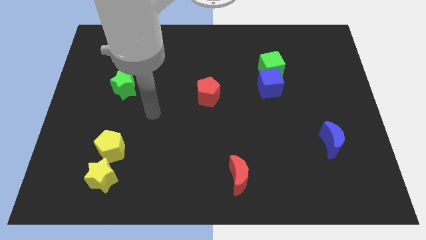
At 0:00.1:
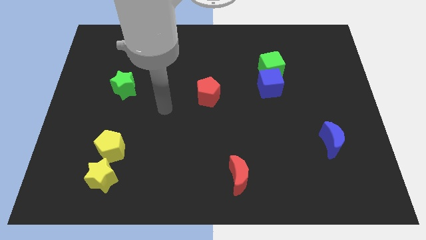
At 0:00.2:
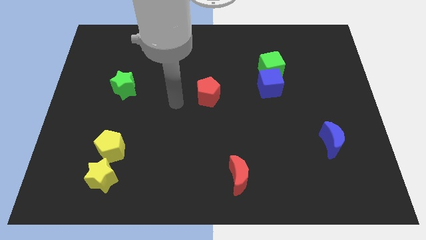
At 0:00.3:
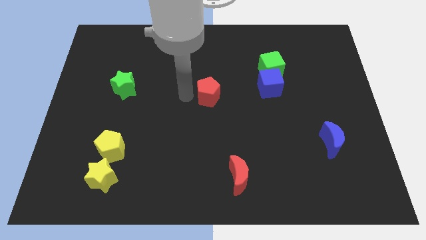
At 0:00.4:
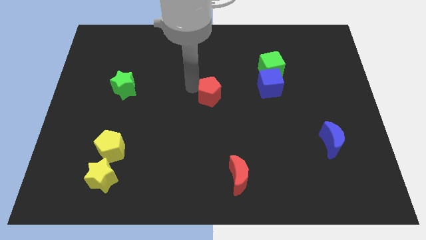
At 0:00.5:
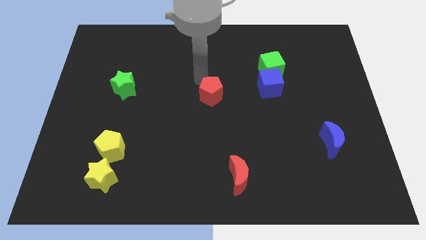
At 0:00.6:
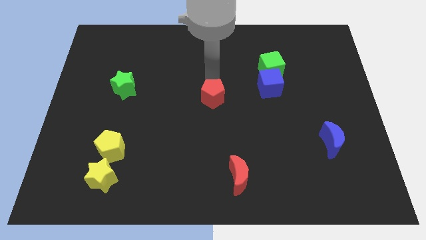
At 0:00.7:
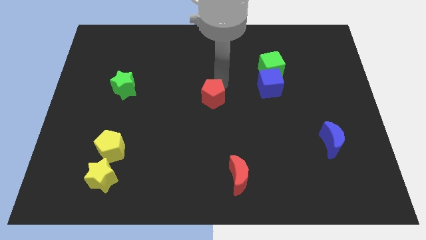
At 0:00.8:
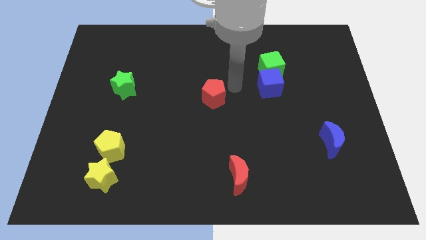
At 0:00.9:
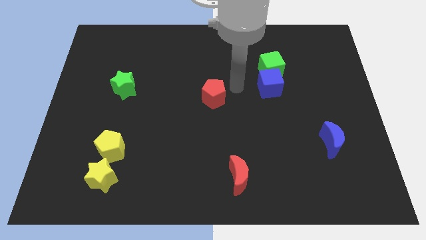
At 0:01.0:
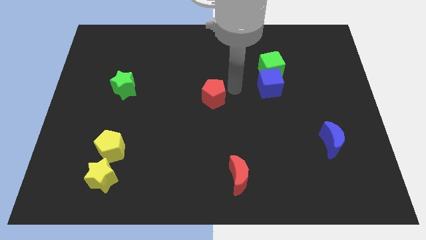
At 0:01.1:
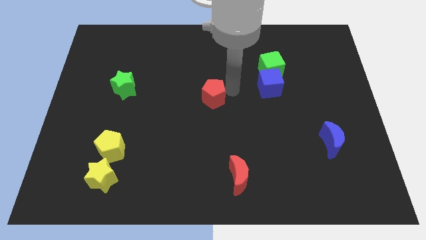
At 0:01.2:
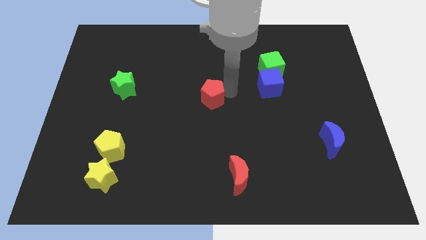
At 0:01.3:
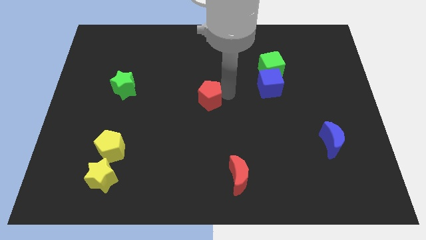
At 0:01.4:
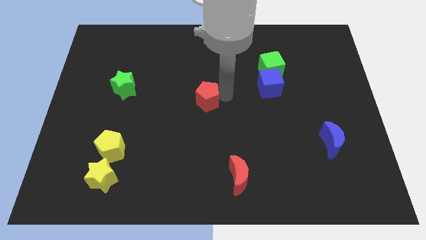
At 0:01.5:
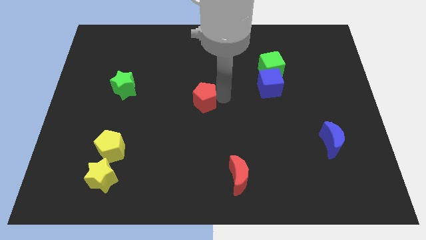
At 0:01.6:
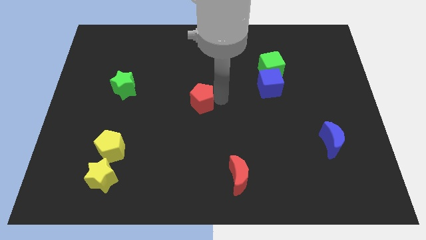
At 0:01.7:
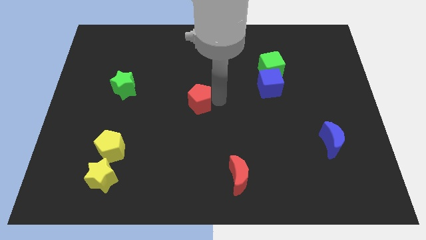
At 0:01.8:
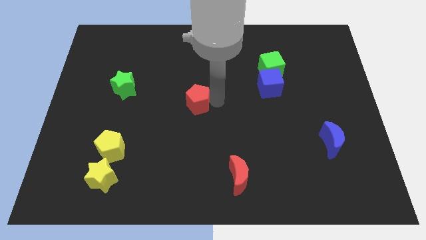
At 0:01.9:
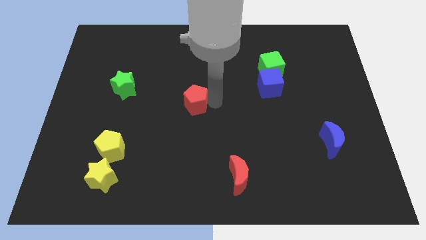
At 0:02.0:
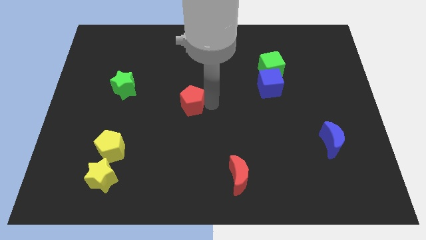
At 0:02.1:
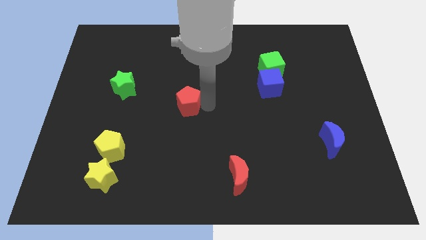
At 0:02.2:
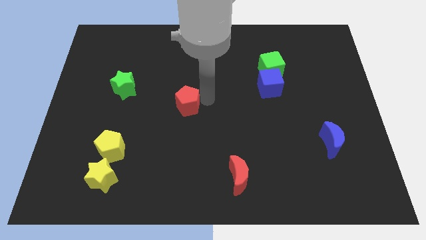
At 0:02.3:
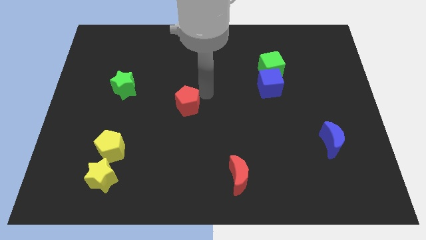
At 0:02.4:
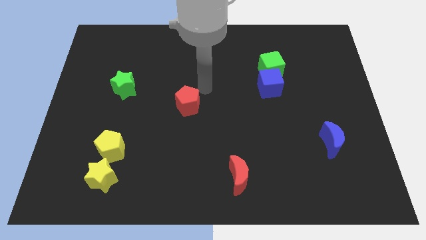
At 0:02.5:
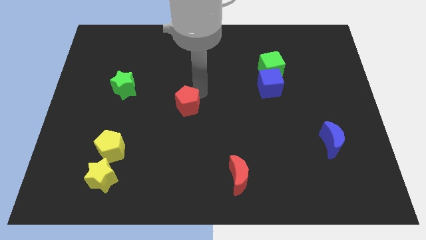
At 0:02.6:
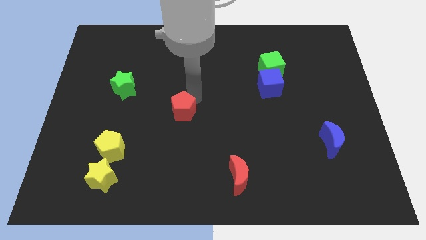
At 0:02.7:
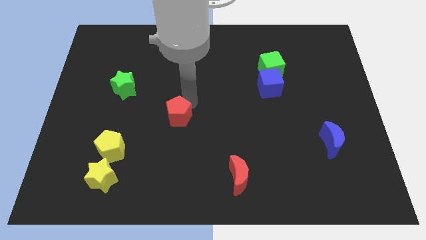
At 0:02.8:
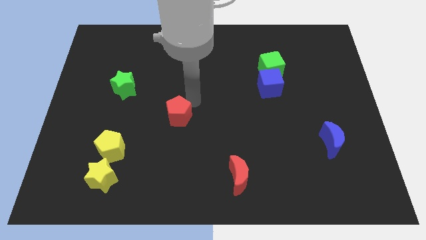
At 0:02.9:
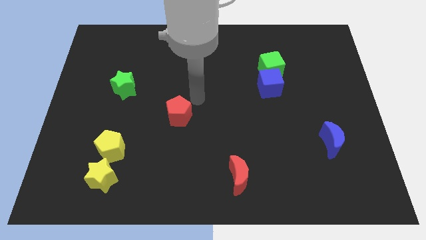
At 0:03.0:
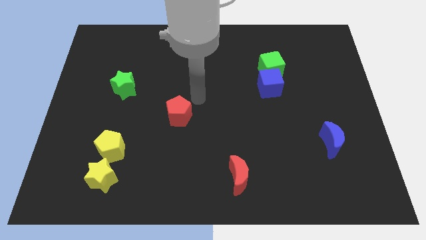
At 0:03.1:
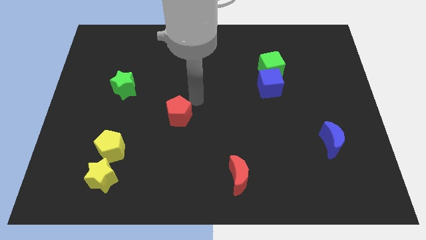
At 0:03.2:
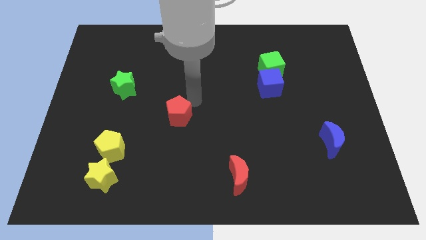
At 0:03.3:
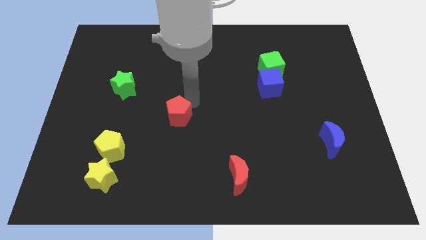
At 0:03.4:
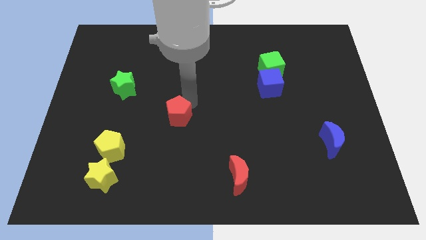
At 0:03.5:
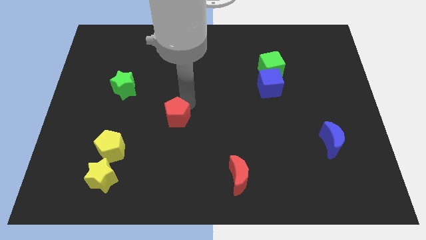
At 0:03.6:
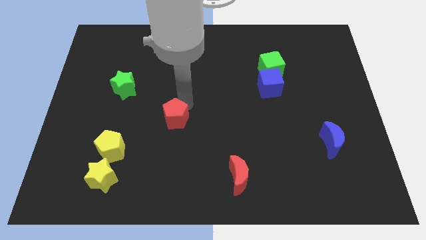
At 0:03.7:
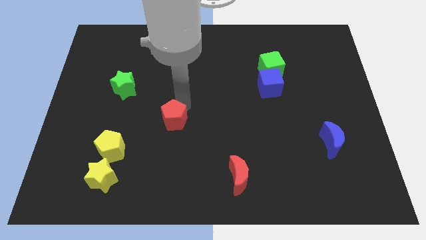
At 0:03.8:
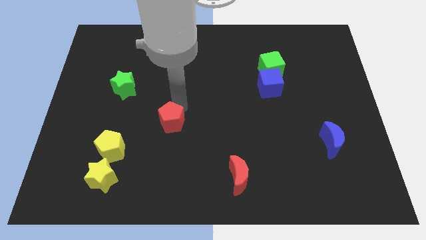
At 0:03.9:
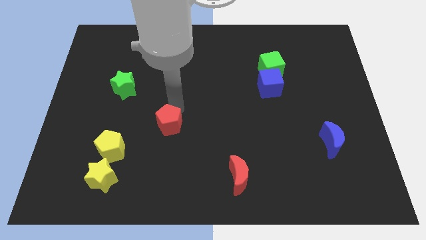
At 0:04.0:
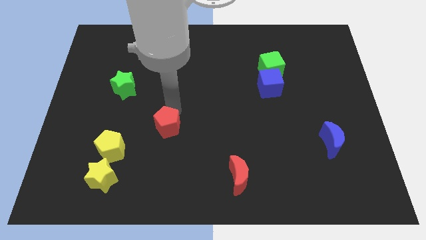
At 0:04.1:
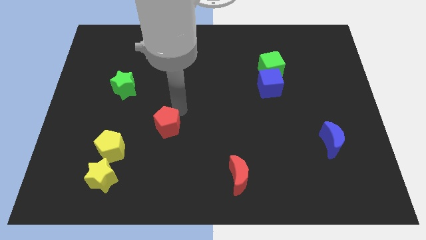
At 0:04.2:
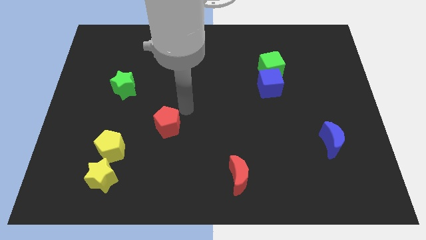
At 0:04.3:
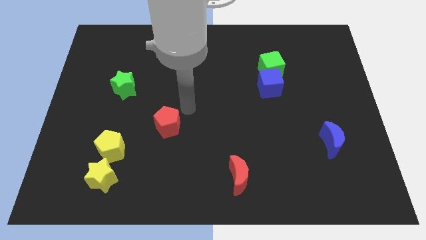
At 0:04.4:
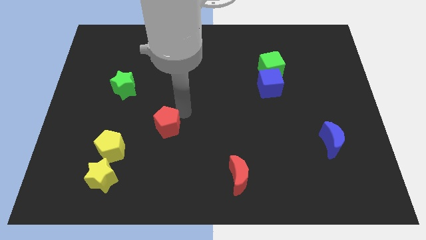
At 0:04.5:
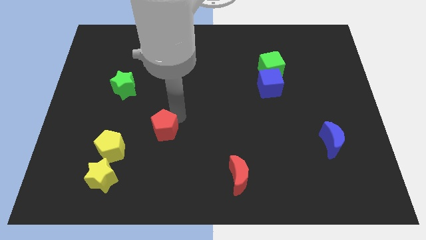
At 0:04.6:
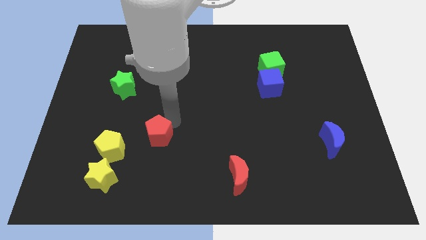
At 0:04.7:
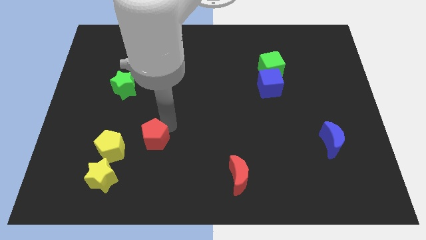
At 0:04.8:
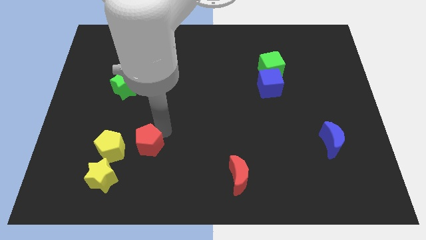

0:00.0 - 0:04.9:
move the red pentagon to the top right of the yellow star

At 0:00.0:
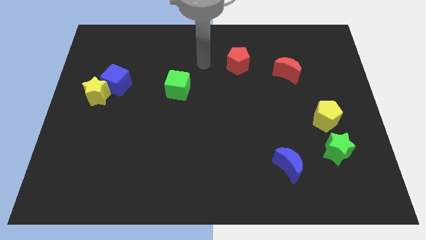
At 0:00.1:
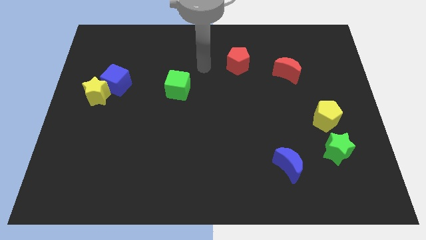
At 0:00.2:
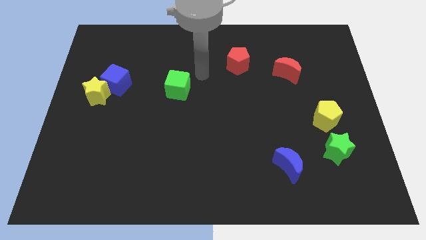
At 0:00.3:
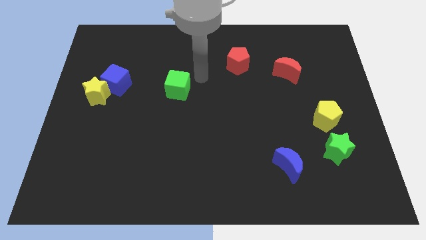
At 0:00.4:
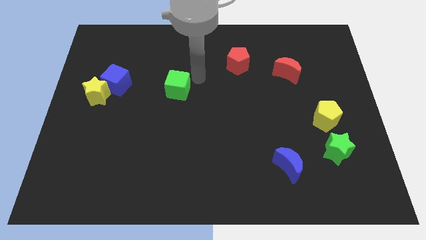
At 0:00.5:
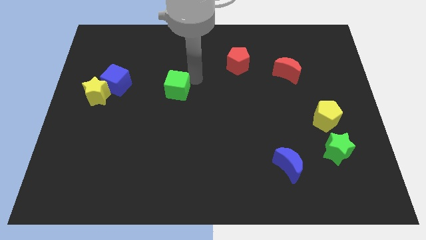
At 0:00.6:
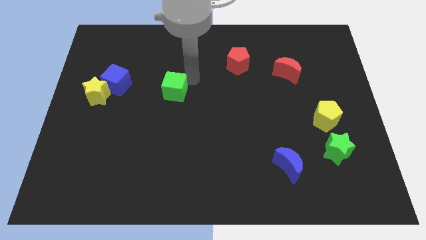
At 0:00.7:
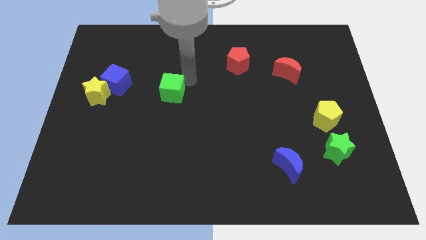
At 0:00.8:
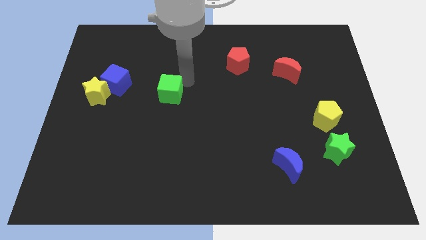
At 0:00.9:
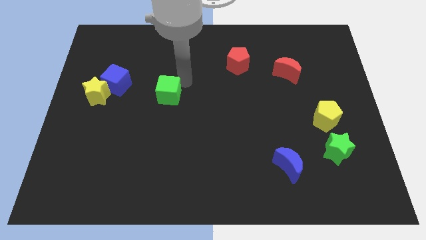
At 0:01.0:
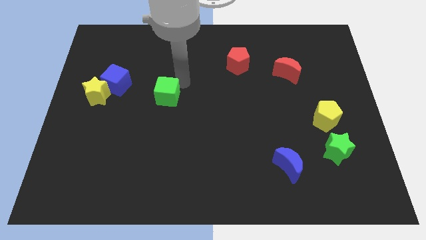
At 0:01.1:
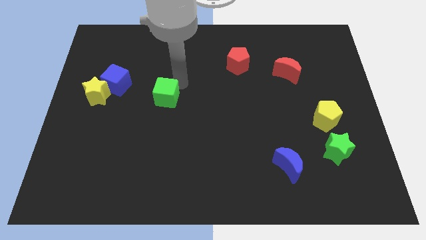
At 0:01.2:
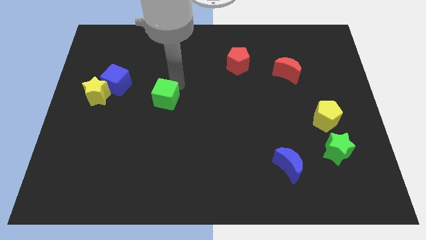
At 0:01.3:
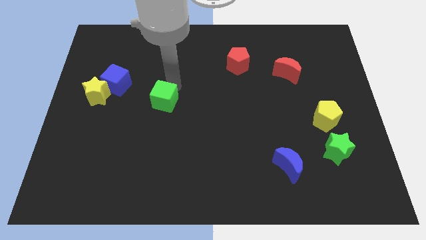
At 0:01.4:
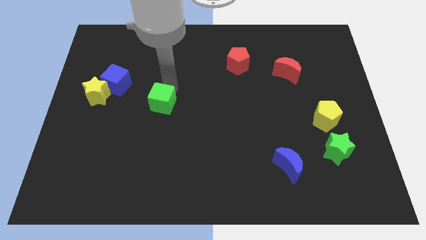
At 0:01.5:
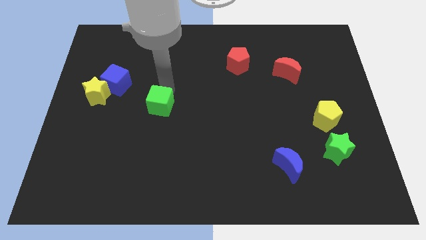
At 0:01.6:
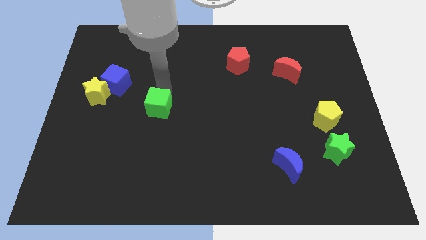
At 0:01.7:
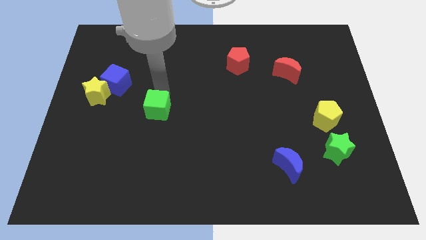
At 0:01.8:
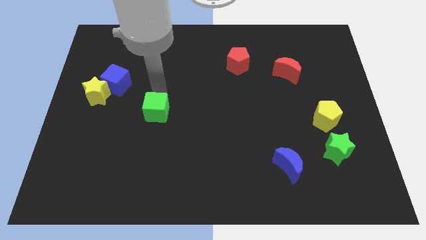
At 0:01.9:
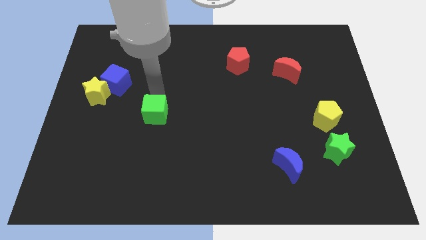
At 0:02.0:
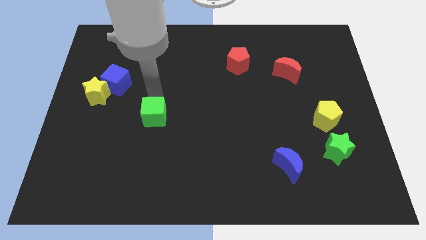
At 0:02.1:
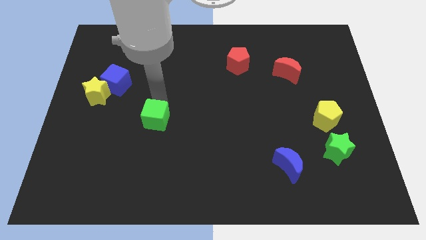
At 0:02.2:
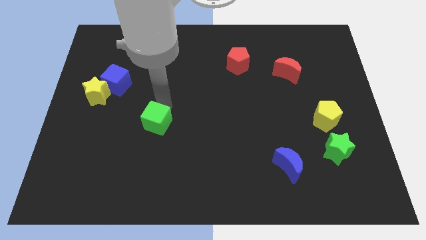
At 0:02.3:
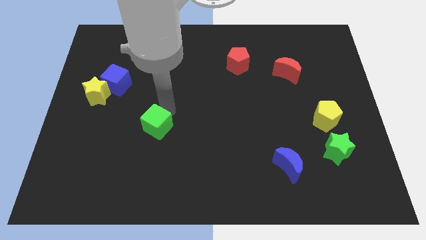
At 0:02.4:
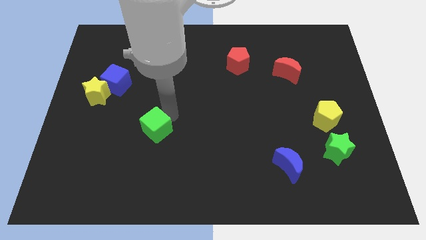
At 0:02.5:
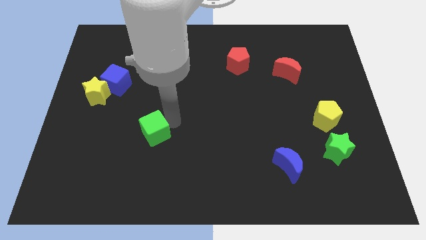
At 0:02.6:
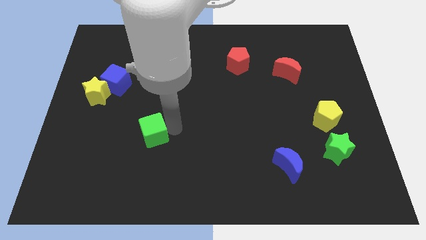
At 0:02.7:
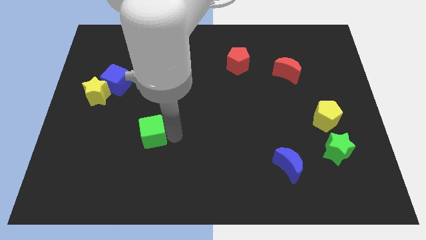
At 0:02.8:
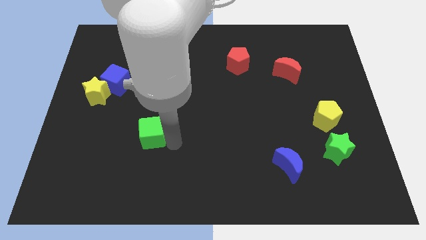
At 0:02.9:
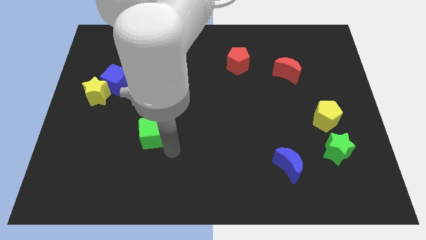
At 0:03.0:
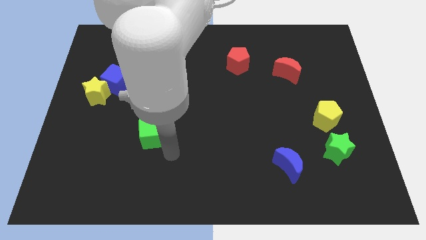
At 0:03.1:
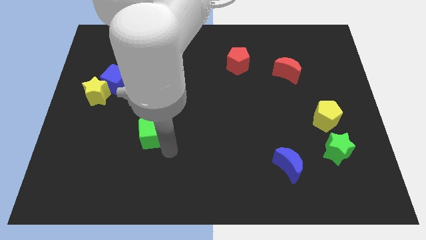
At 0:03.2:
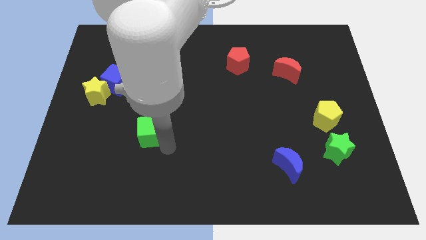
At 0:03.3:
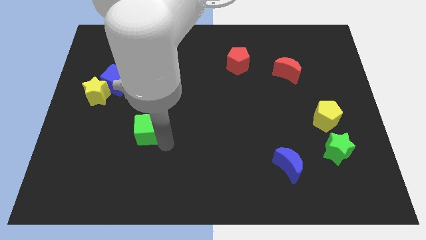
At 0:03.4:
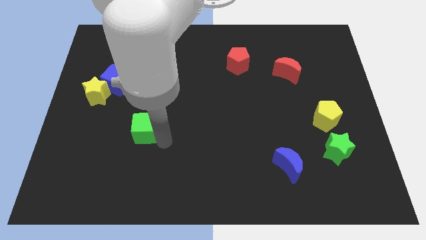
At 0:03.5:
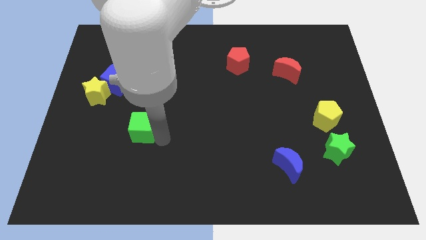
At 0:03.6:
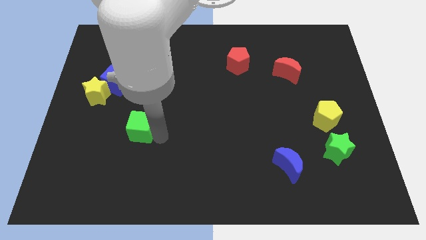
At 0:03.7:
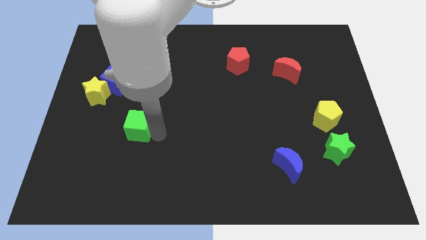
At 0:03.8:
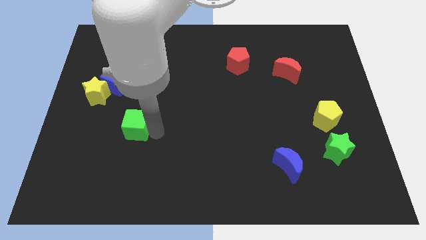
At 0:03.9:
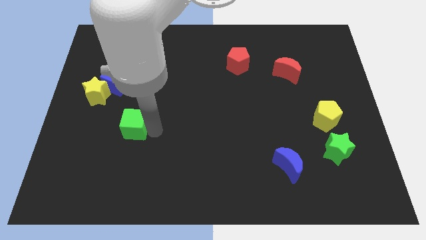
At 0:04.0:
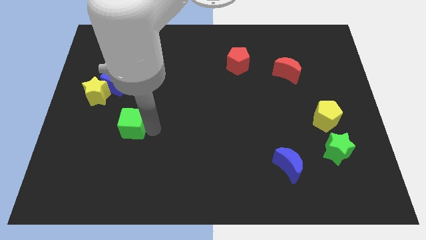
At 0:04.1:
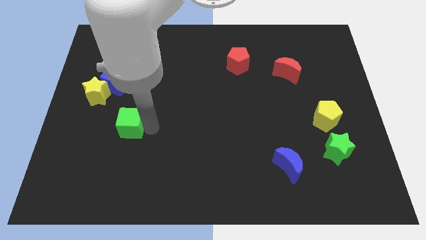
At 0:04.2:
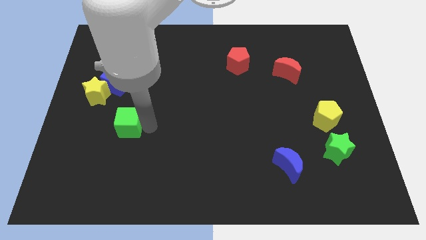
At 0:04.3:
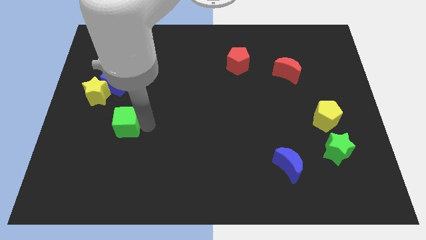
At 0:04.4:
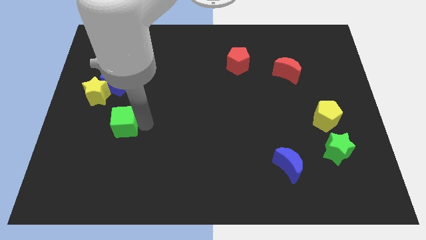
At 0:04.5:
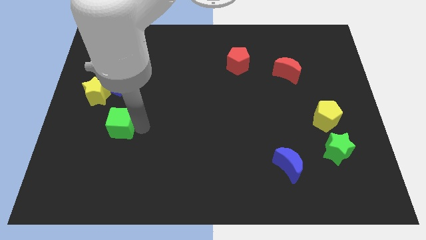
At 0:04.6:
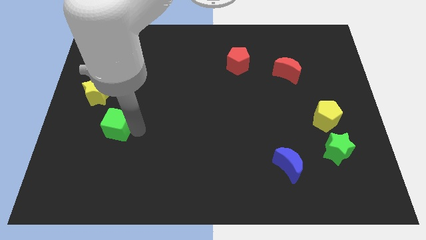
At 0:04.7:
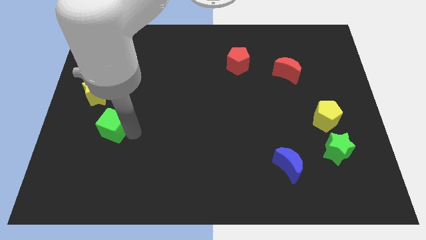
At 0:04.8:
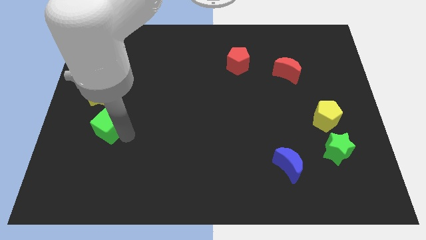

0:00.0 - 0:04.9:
push the green cube below the yellow star
